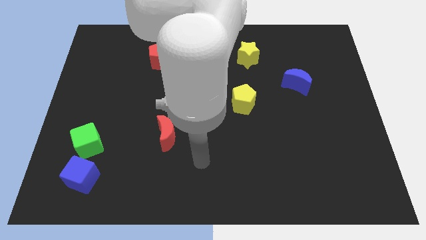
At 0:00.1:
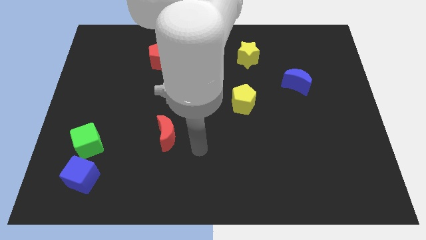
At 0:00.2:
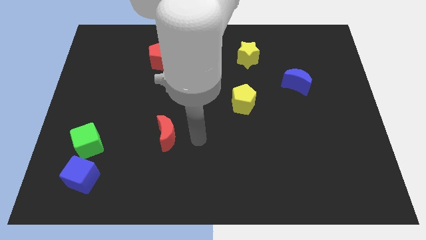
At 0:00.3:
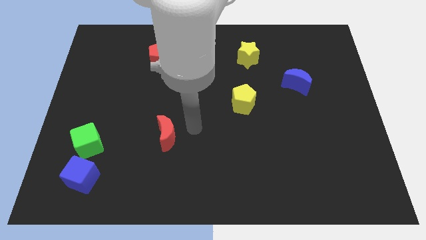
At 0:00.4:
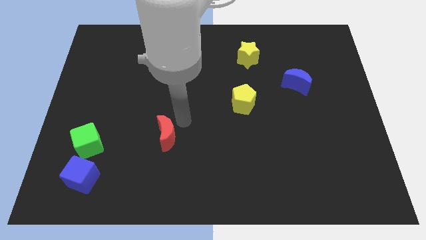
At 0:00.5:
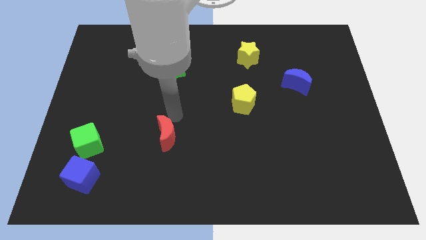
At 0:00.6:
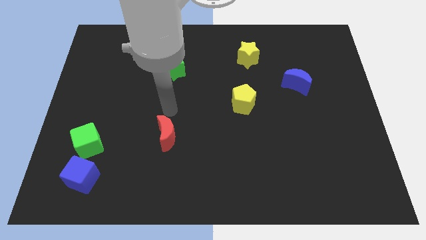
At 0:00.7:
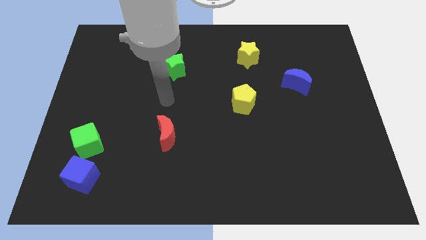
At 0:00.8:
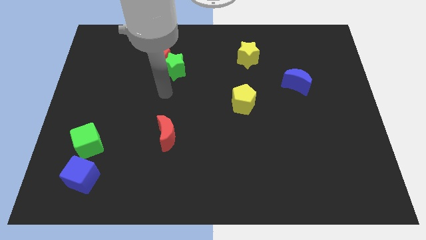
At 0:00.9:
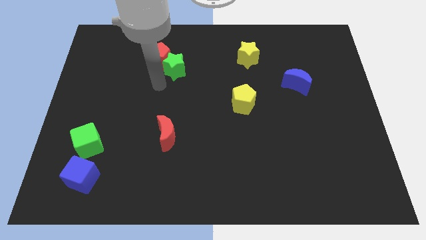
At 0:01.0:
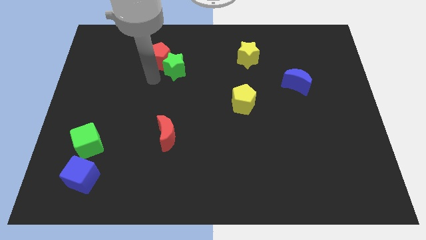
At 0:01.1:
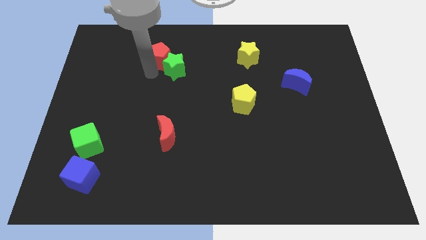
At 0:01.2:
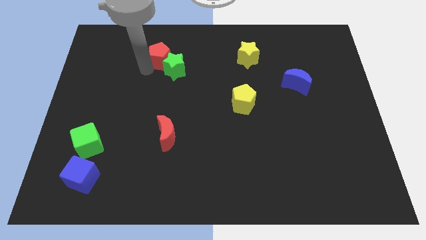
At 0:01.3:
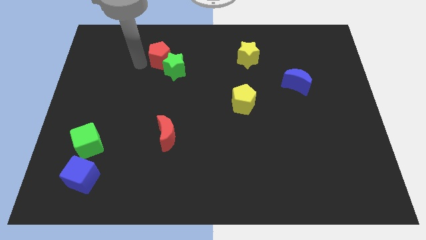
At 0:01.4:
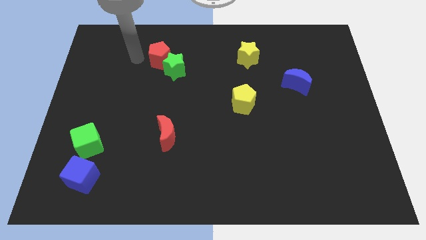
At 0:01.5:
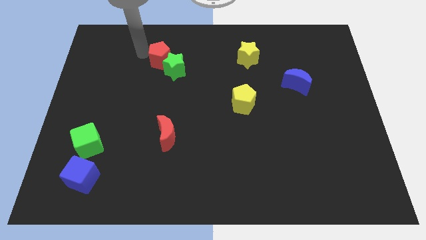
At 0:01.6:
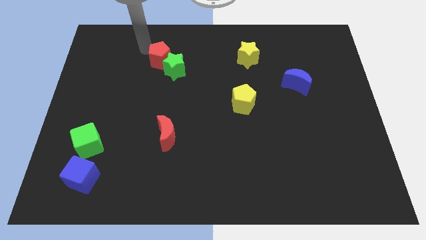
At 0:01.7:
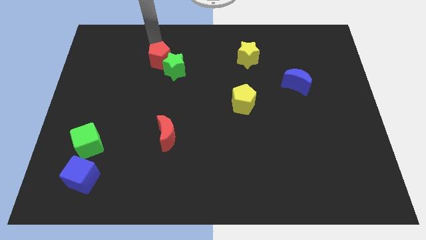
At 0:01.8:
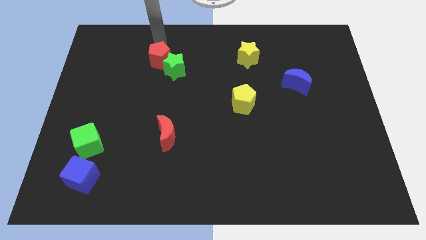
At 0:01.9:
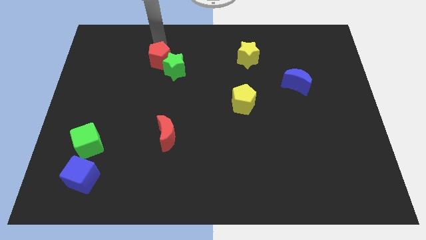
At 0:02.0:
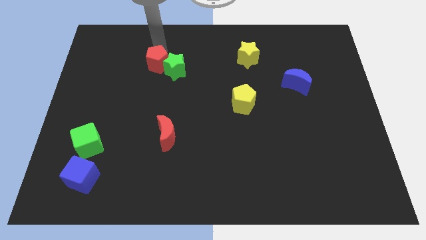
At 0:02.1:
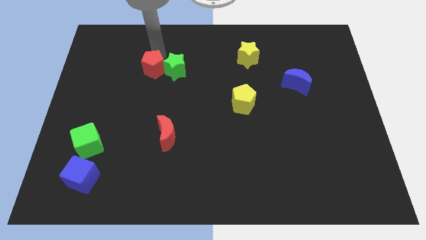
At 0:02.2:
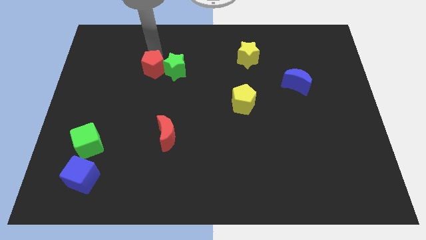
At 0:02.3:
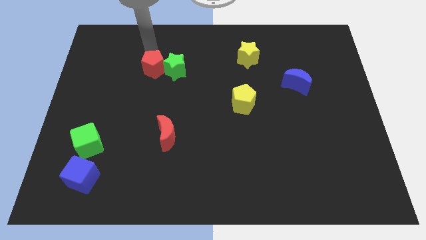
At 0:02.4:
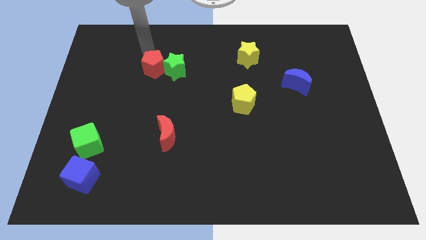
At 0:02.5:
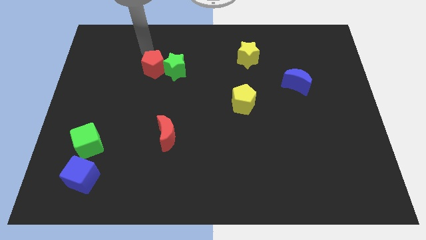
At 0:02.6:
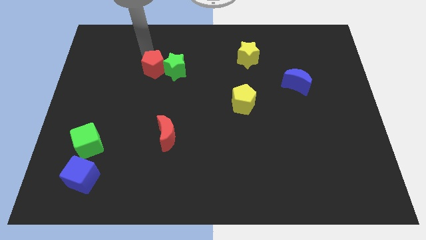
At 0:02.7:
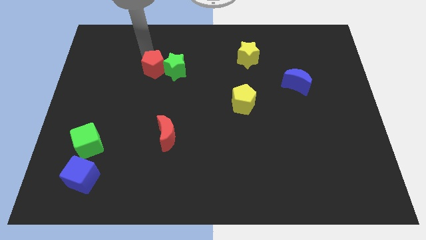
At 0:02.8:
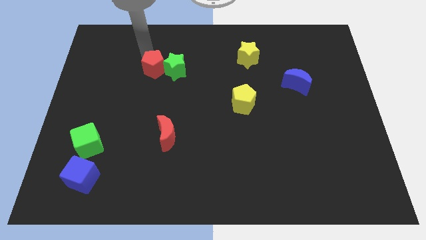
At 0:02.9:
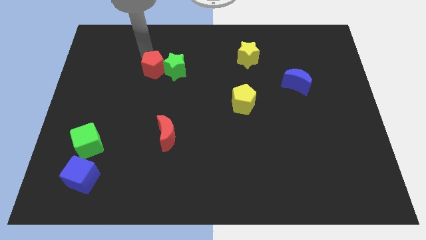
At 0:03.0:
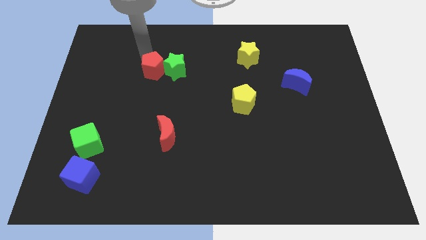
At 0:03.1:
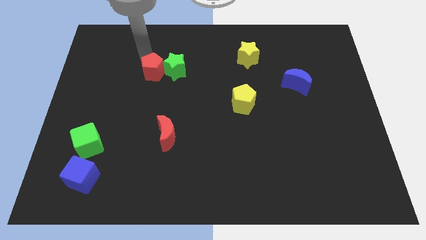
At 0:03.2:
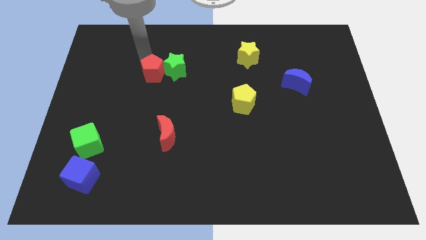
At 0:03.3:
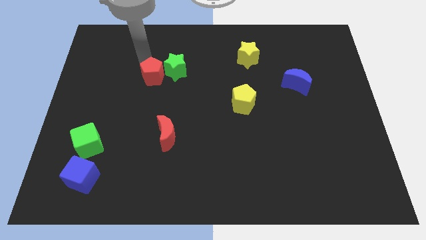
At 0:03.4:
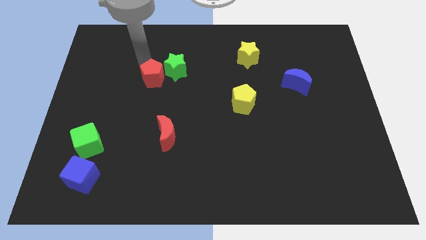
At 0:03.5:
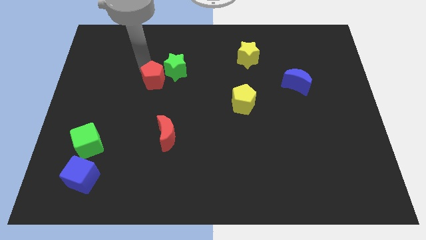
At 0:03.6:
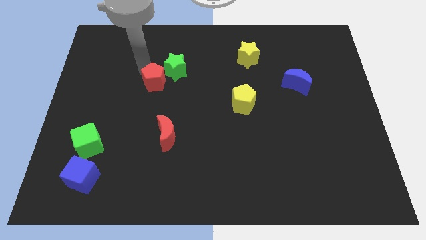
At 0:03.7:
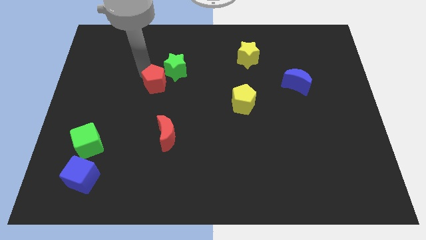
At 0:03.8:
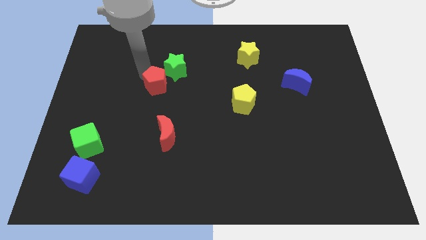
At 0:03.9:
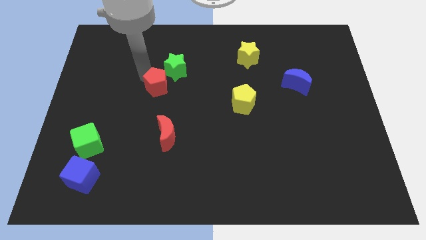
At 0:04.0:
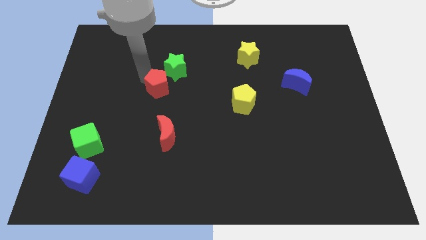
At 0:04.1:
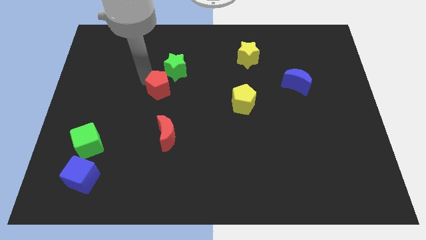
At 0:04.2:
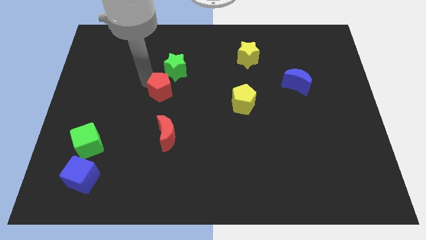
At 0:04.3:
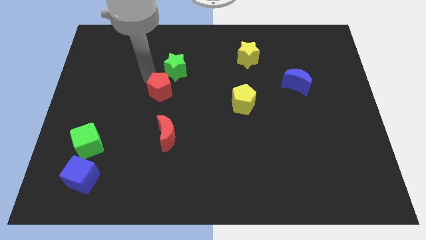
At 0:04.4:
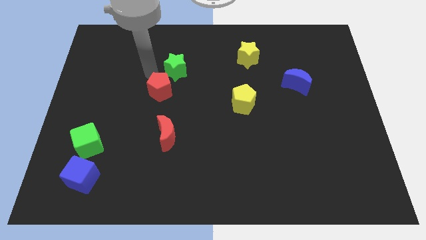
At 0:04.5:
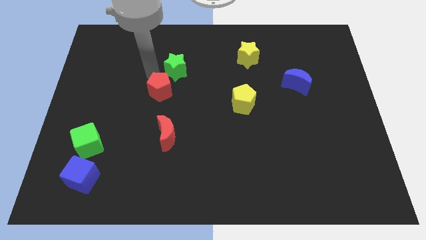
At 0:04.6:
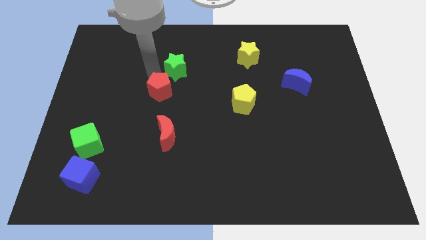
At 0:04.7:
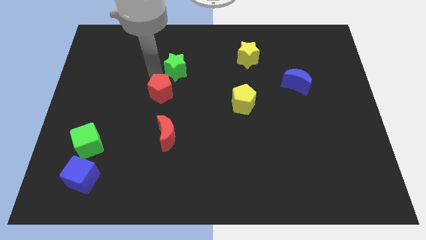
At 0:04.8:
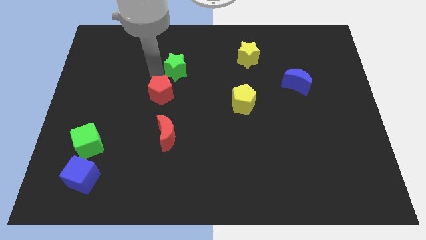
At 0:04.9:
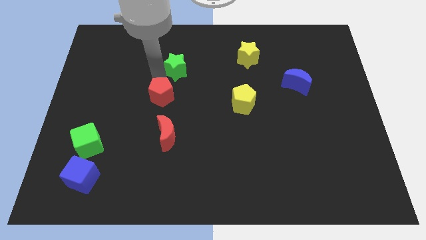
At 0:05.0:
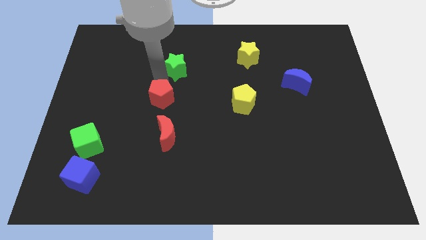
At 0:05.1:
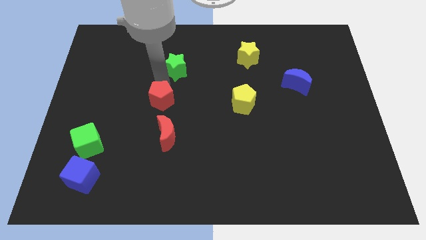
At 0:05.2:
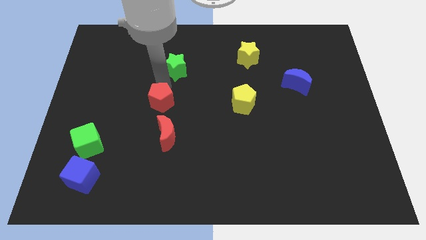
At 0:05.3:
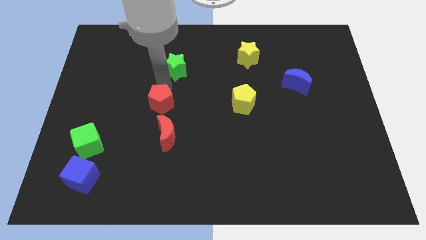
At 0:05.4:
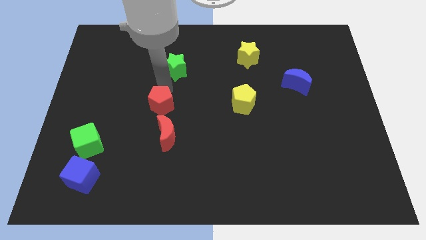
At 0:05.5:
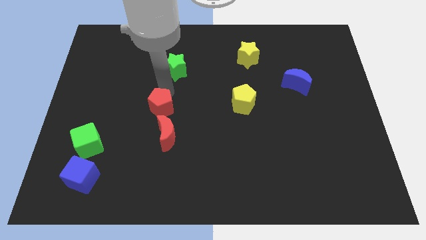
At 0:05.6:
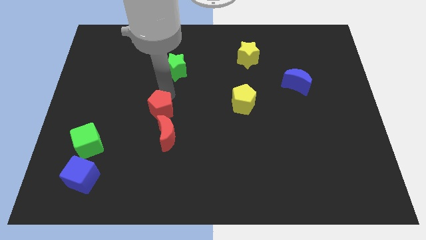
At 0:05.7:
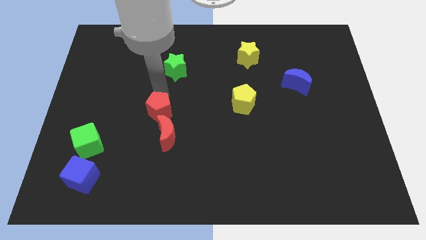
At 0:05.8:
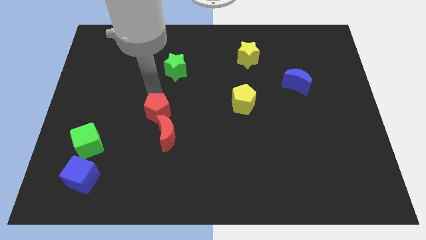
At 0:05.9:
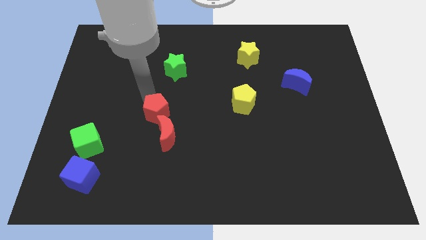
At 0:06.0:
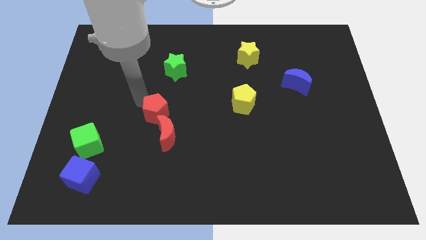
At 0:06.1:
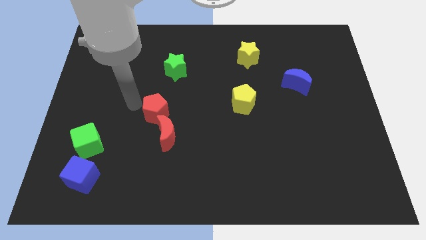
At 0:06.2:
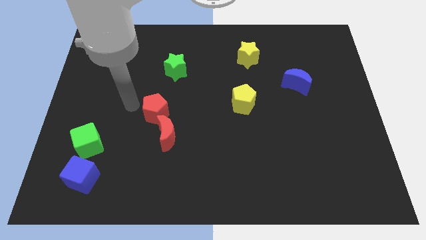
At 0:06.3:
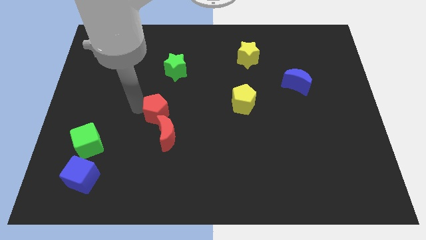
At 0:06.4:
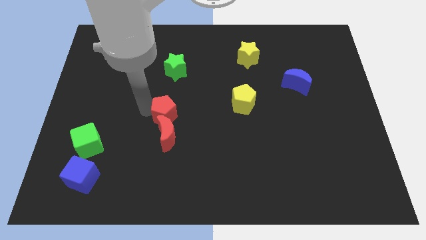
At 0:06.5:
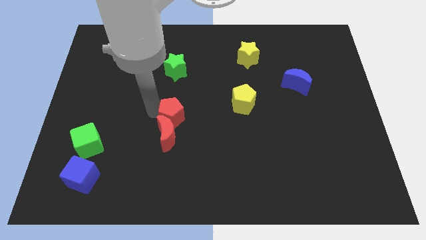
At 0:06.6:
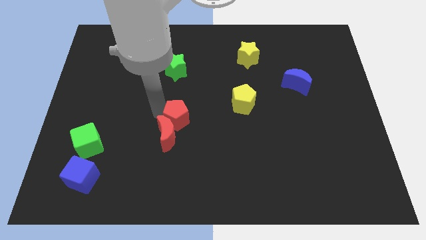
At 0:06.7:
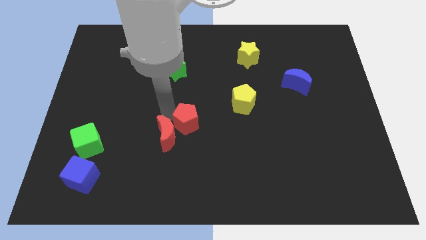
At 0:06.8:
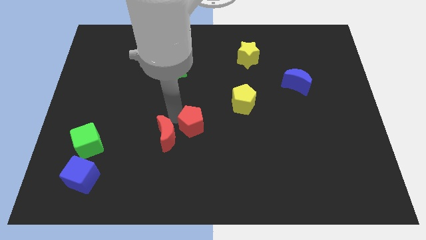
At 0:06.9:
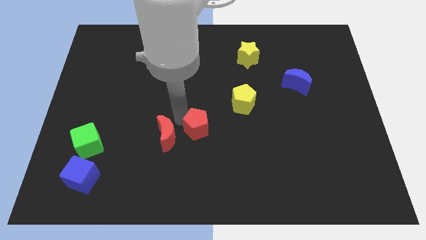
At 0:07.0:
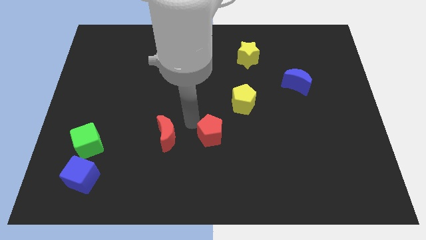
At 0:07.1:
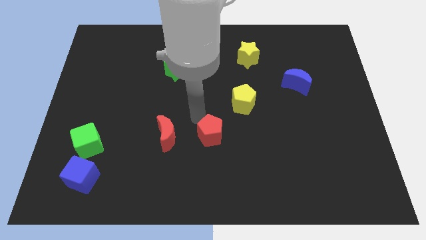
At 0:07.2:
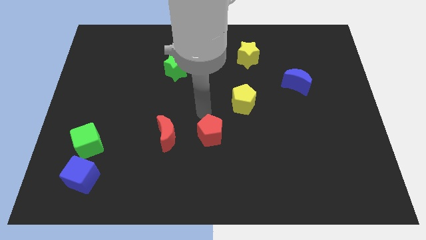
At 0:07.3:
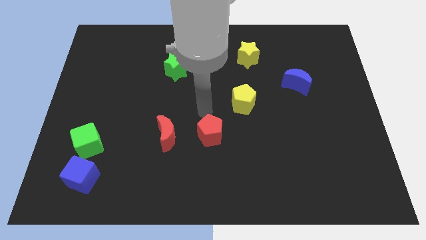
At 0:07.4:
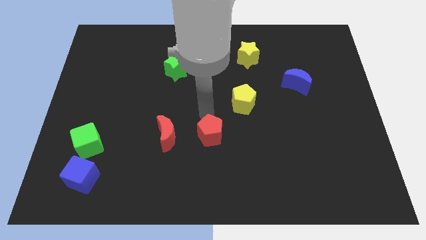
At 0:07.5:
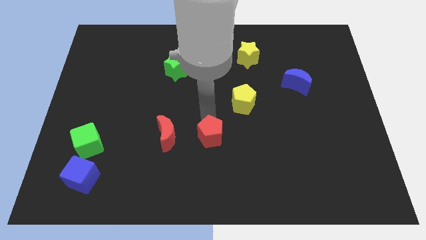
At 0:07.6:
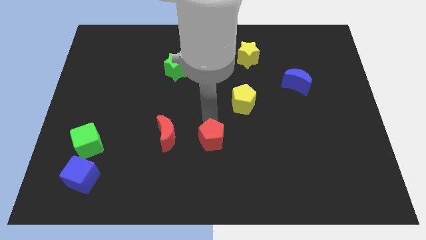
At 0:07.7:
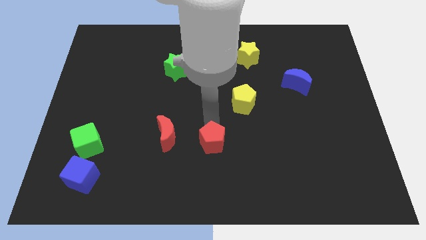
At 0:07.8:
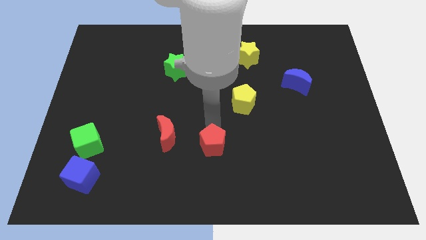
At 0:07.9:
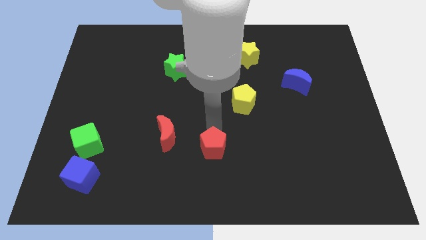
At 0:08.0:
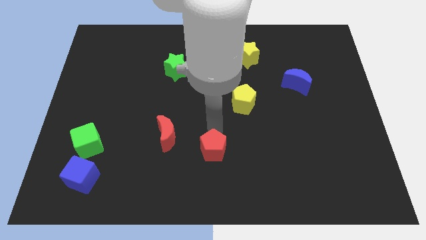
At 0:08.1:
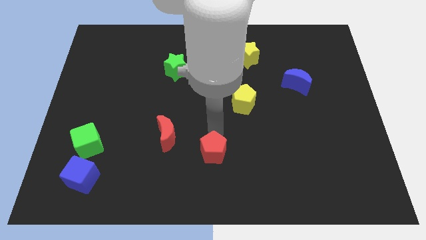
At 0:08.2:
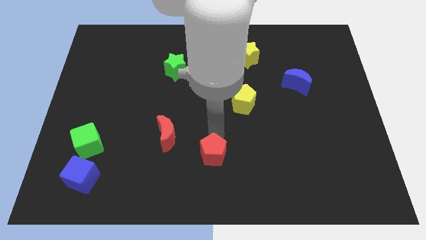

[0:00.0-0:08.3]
slide the red pentagon to the bottom
